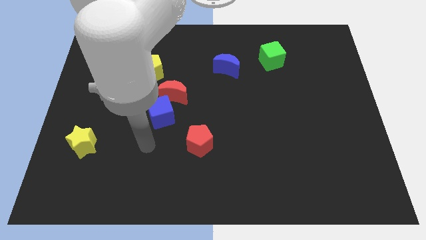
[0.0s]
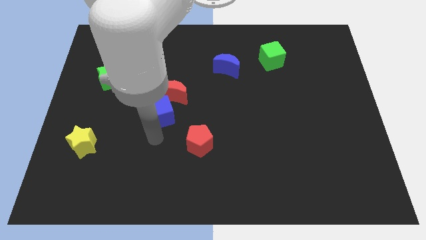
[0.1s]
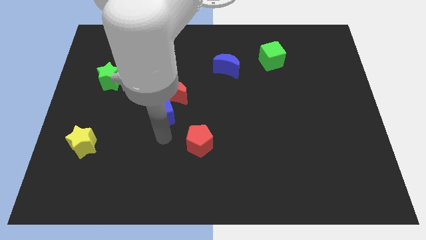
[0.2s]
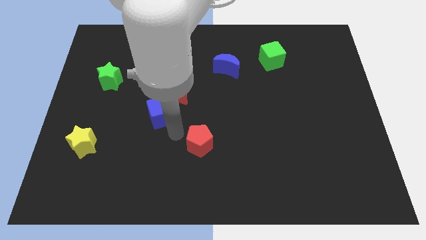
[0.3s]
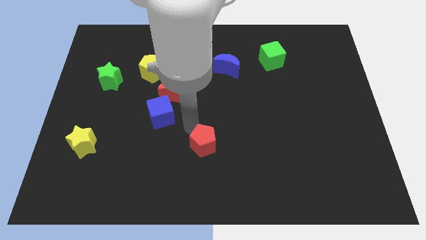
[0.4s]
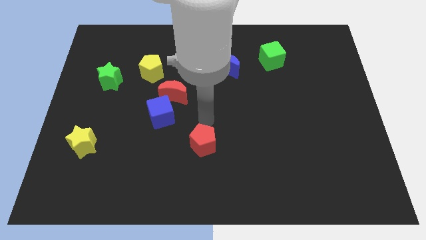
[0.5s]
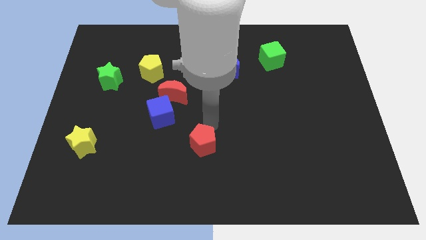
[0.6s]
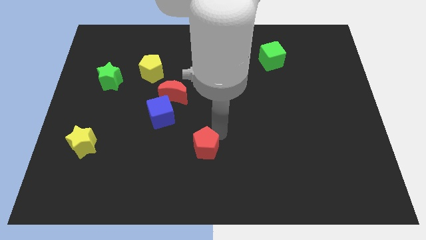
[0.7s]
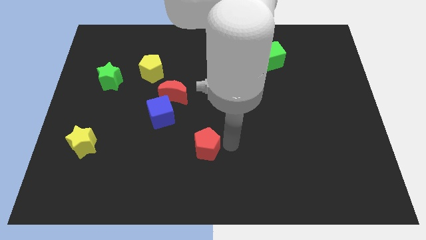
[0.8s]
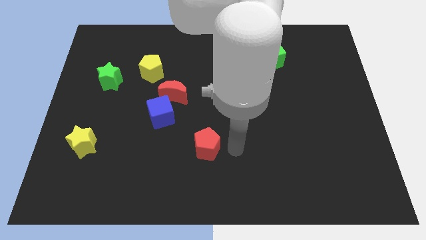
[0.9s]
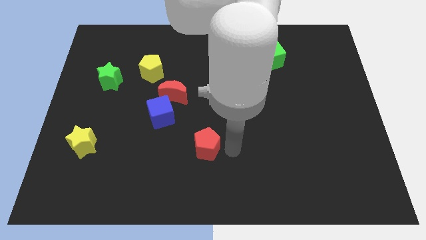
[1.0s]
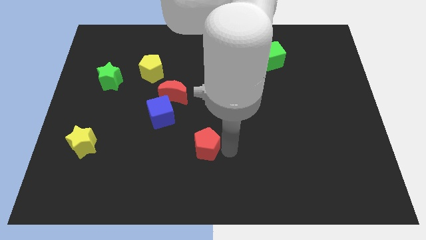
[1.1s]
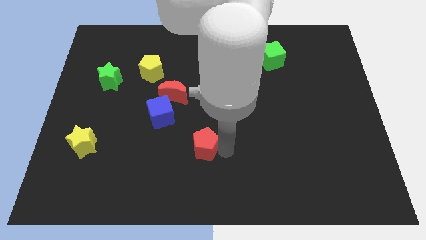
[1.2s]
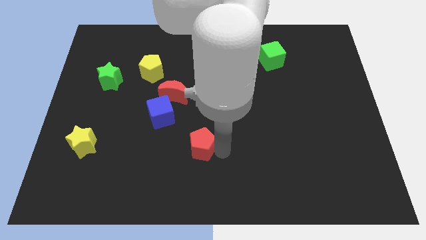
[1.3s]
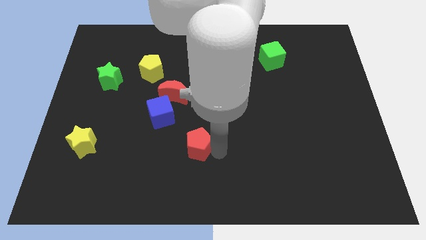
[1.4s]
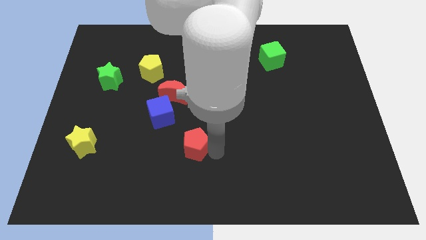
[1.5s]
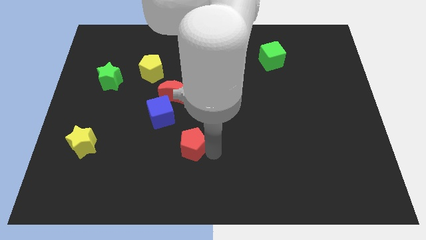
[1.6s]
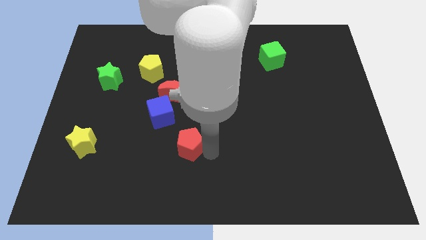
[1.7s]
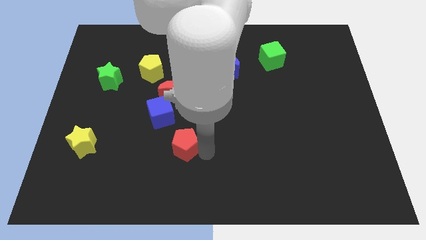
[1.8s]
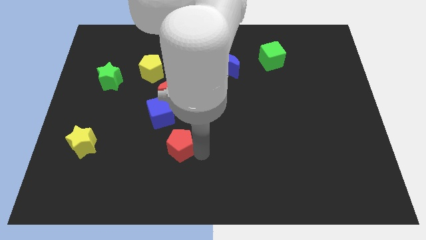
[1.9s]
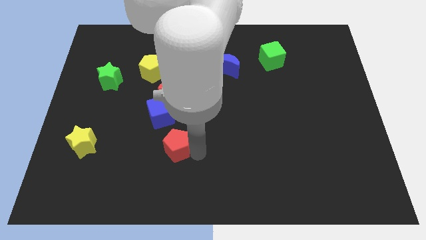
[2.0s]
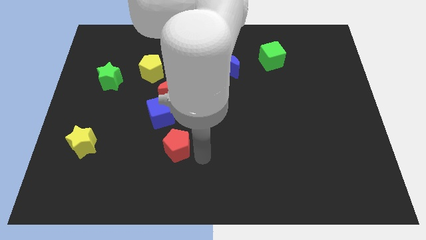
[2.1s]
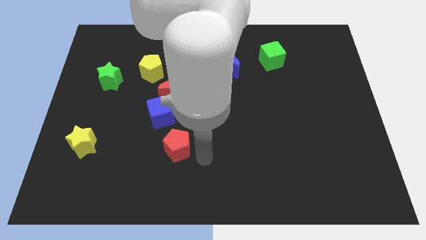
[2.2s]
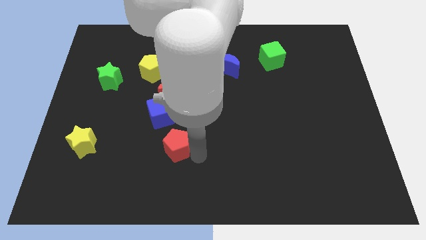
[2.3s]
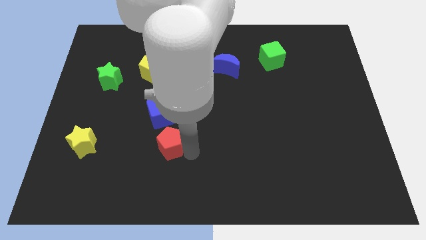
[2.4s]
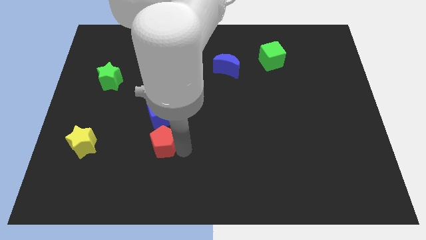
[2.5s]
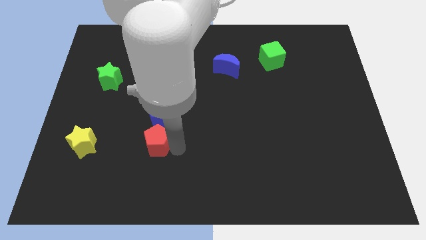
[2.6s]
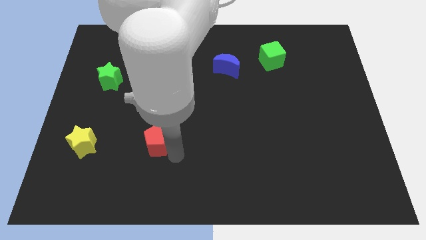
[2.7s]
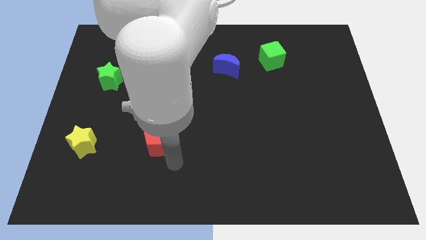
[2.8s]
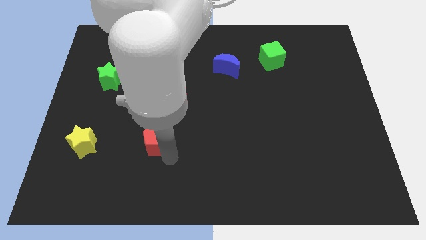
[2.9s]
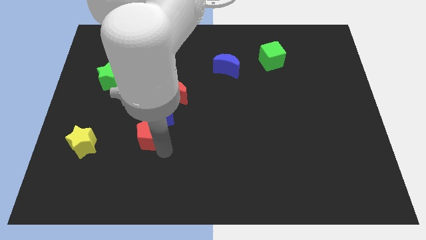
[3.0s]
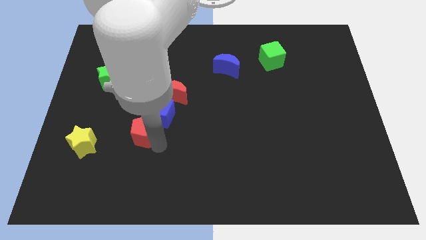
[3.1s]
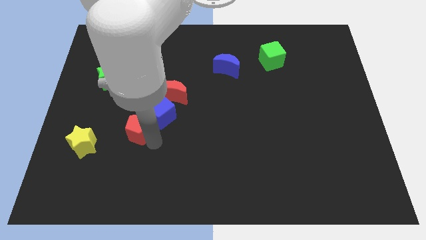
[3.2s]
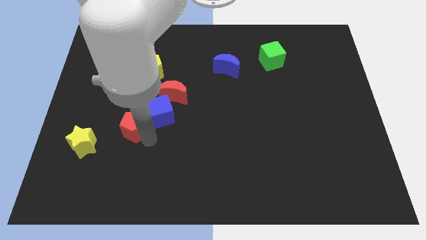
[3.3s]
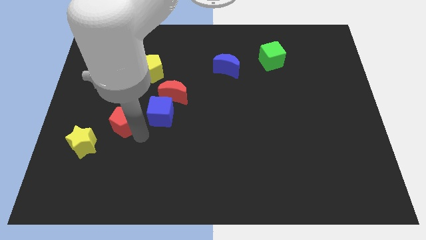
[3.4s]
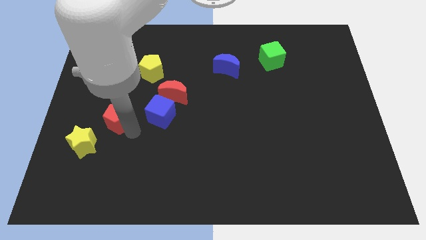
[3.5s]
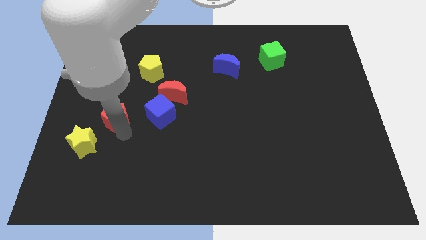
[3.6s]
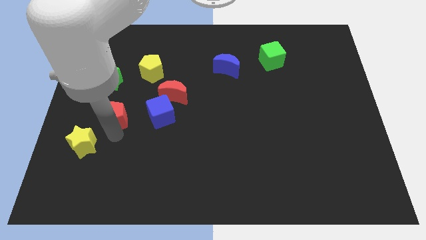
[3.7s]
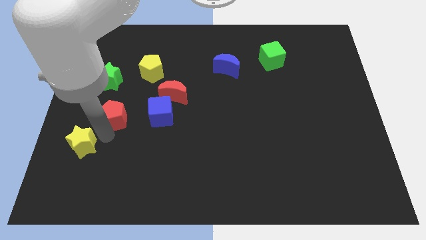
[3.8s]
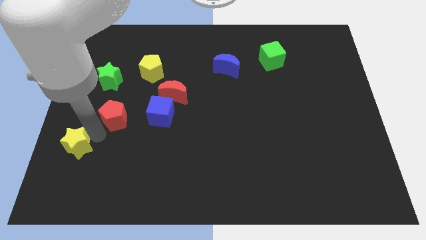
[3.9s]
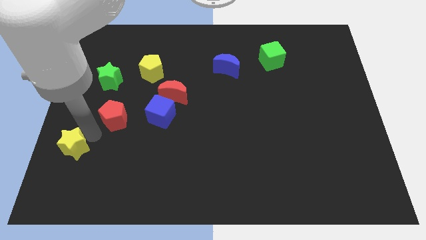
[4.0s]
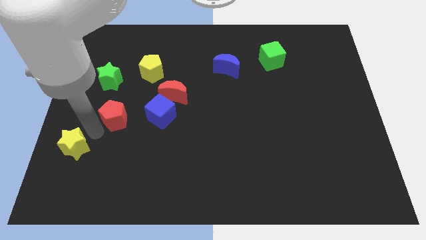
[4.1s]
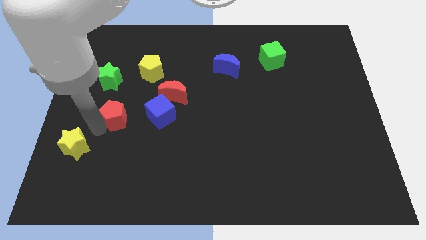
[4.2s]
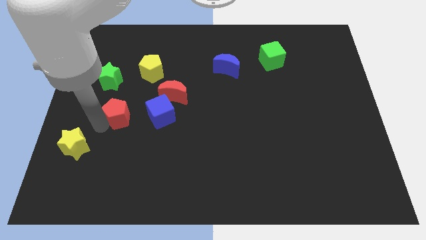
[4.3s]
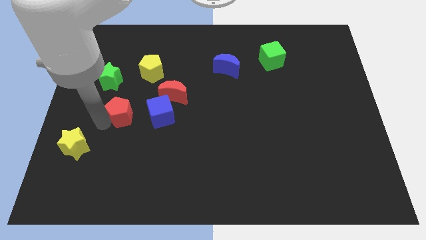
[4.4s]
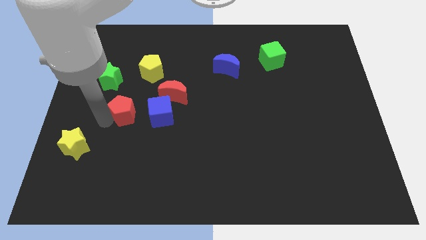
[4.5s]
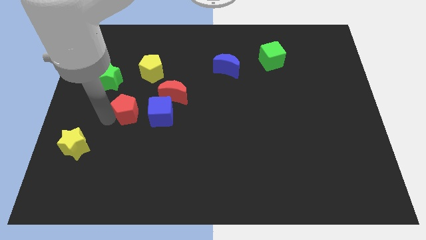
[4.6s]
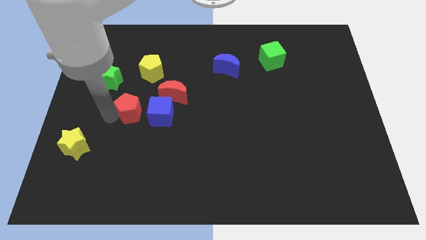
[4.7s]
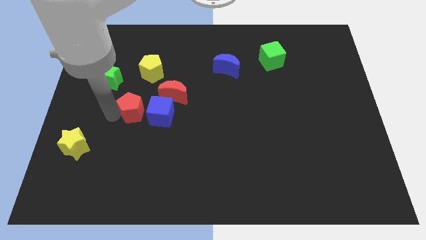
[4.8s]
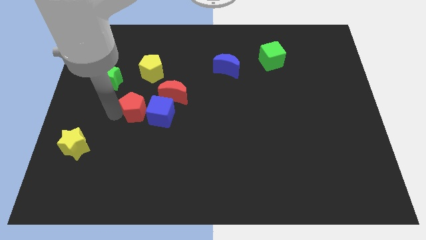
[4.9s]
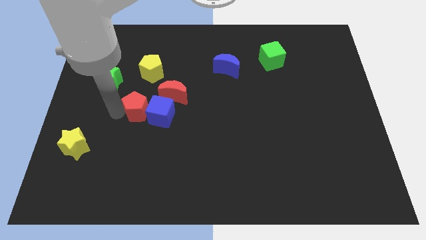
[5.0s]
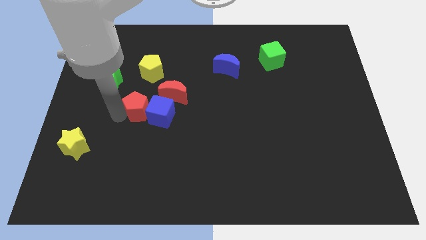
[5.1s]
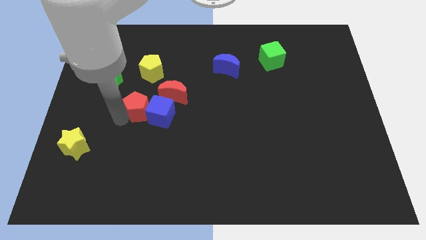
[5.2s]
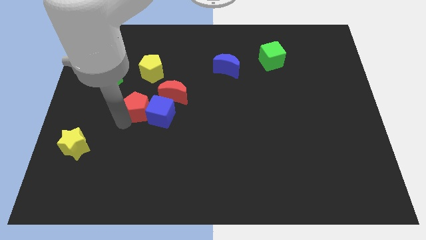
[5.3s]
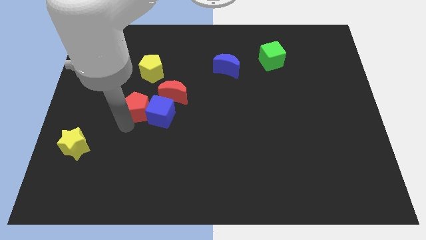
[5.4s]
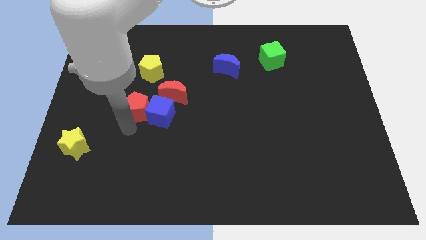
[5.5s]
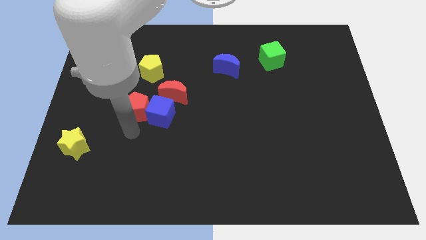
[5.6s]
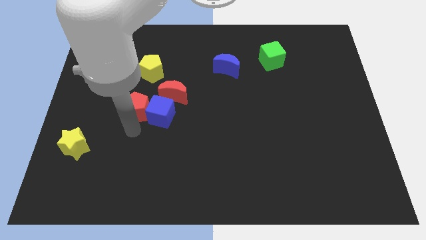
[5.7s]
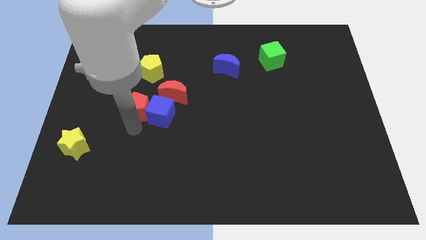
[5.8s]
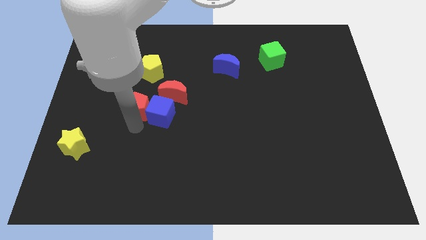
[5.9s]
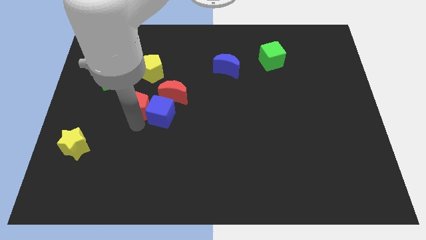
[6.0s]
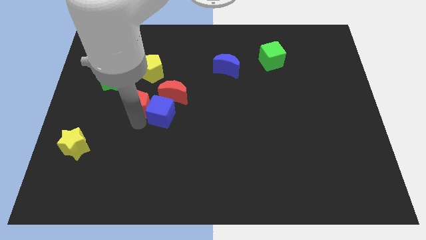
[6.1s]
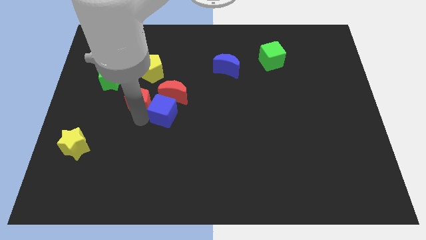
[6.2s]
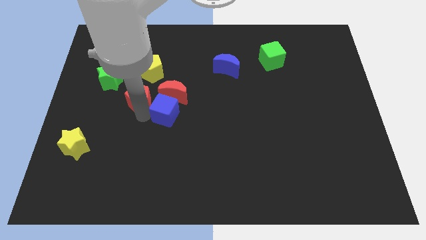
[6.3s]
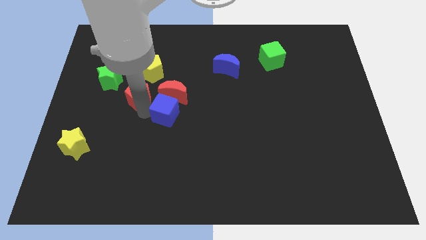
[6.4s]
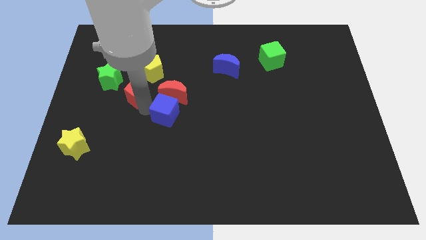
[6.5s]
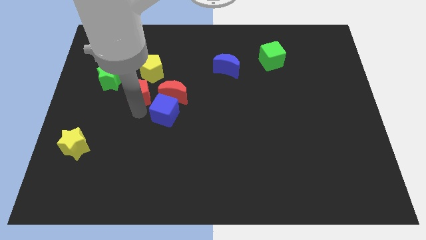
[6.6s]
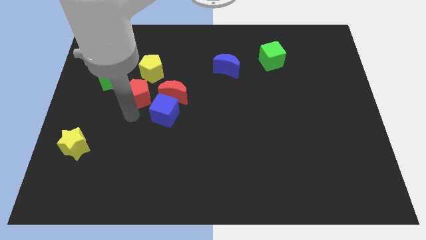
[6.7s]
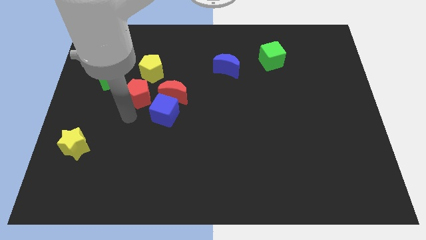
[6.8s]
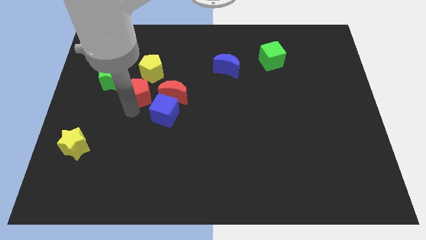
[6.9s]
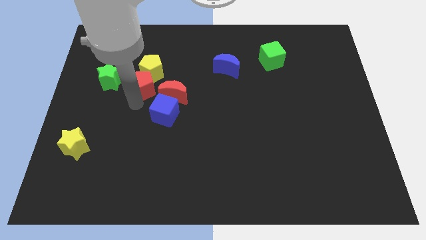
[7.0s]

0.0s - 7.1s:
slide the red pentagon to the yellow pentagon

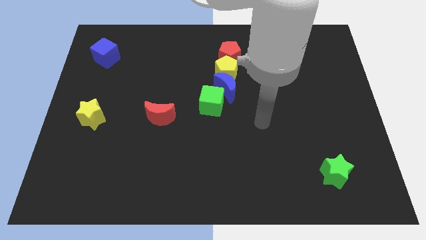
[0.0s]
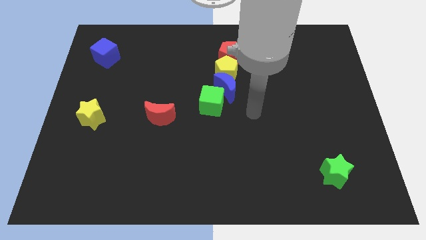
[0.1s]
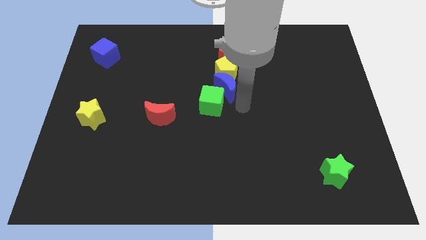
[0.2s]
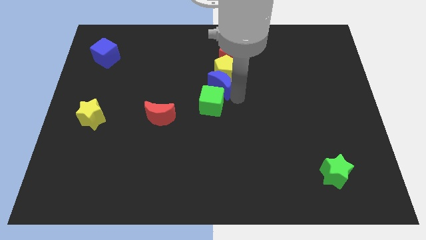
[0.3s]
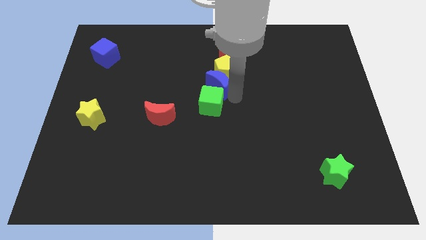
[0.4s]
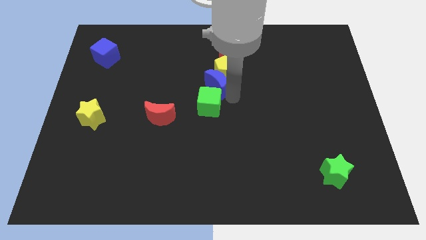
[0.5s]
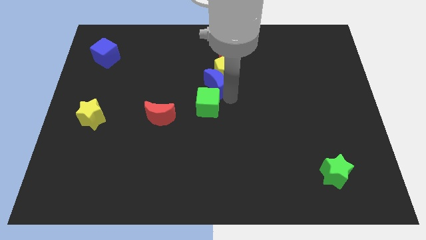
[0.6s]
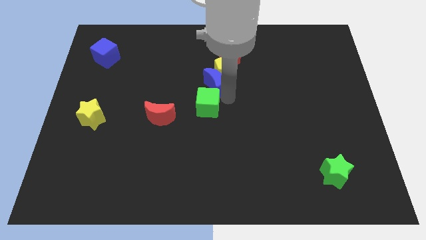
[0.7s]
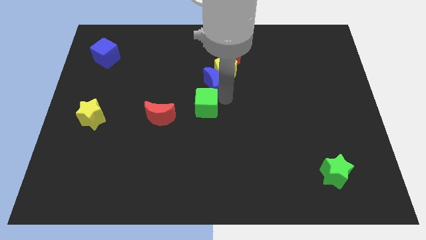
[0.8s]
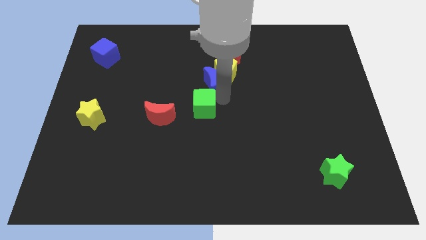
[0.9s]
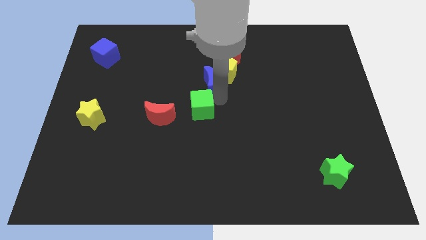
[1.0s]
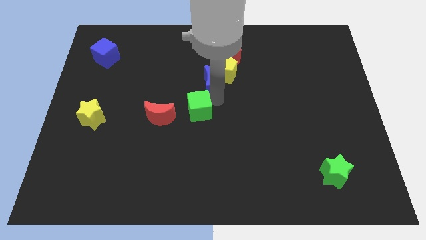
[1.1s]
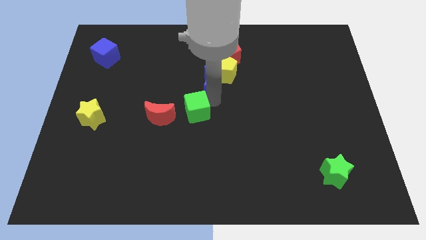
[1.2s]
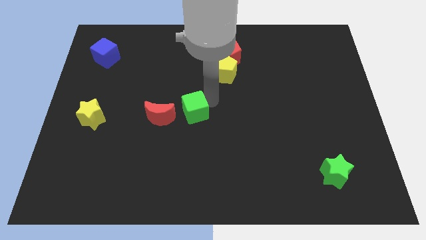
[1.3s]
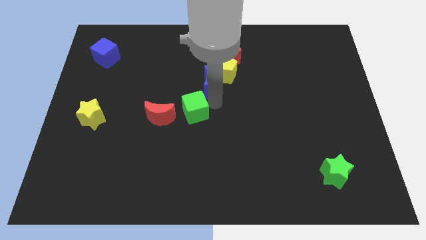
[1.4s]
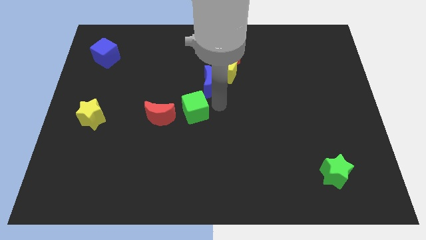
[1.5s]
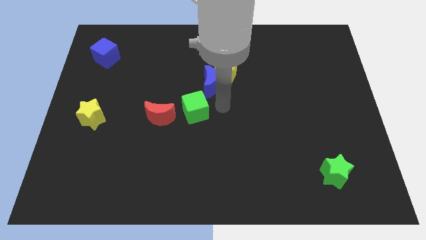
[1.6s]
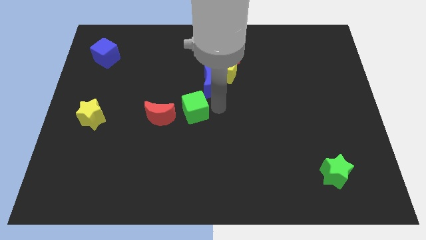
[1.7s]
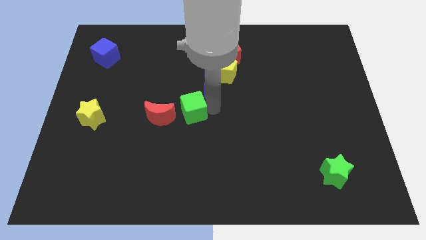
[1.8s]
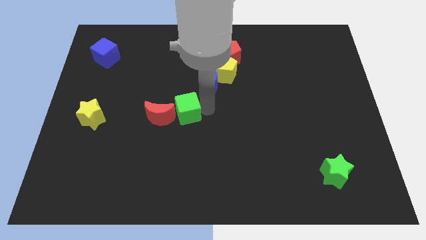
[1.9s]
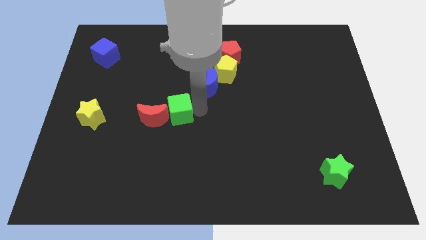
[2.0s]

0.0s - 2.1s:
put the green cube close to the red moon
